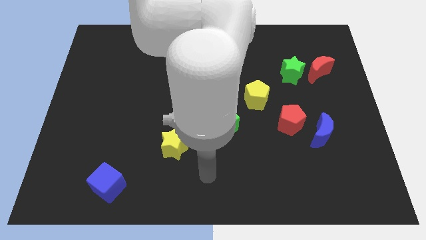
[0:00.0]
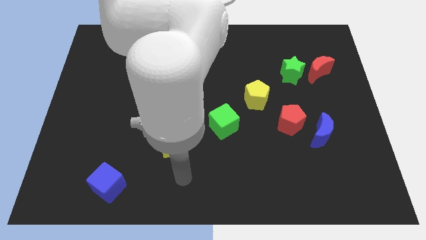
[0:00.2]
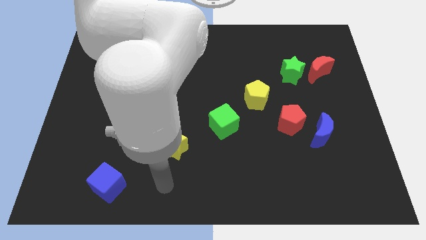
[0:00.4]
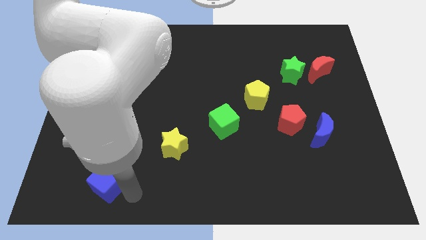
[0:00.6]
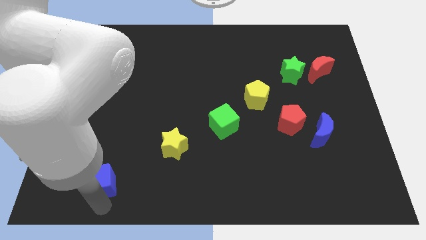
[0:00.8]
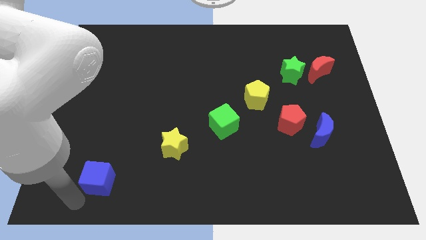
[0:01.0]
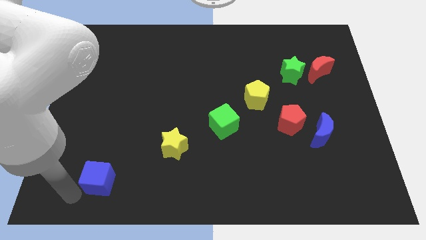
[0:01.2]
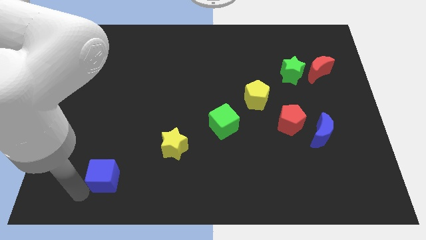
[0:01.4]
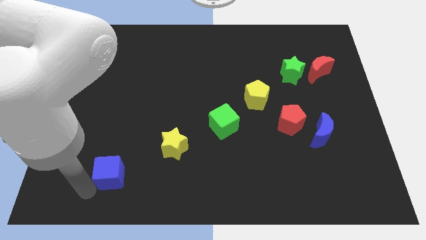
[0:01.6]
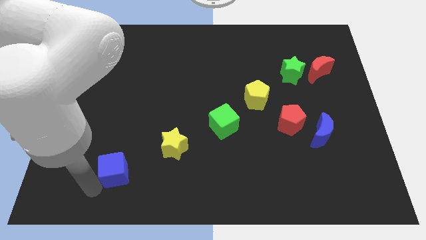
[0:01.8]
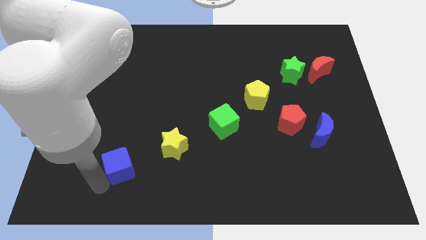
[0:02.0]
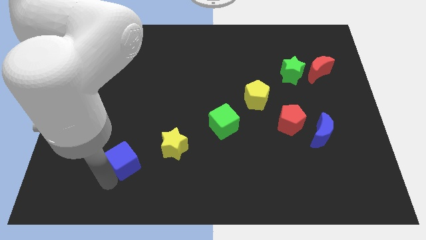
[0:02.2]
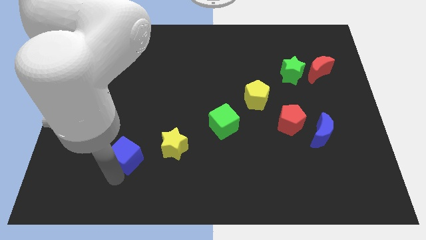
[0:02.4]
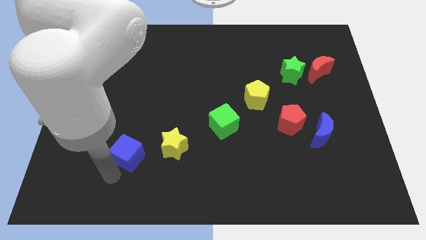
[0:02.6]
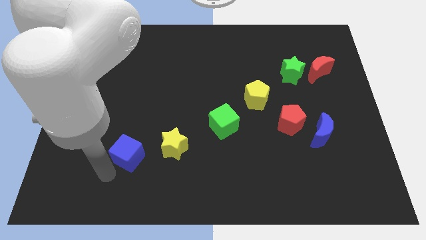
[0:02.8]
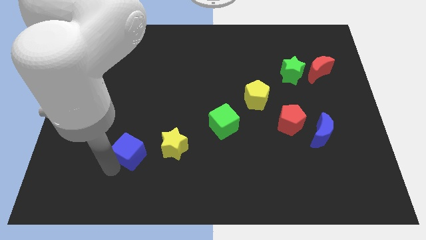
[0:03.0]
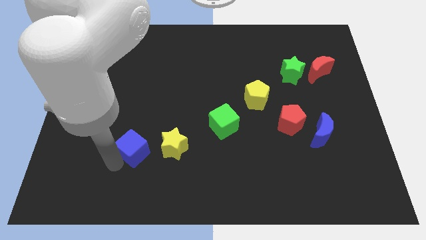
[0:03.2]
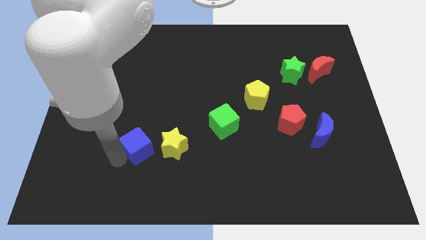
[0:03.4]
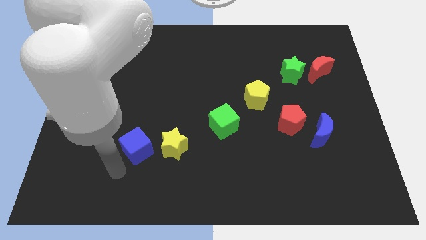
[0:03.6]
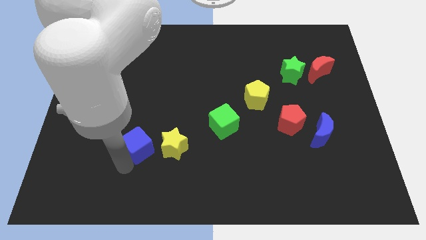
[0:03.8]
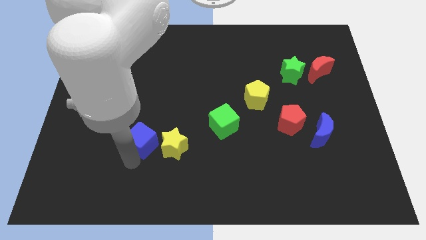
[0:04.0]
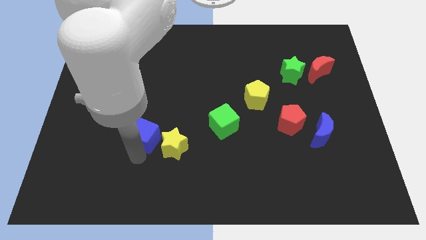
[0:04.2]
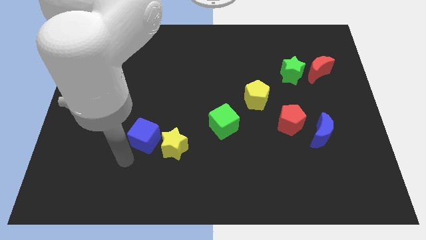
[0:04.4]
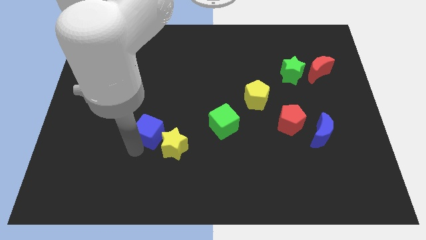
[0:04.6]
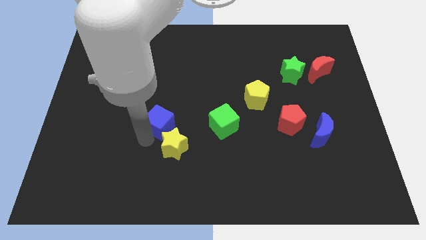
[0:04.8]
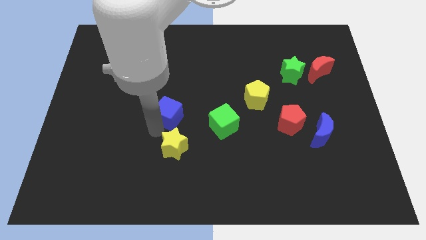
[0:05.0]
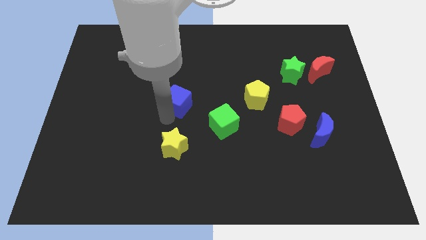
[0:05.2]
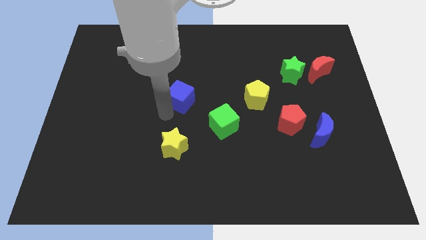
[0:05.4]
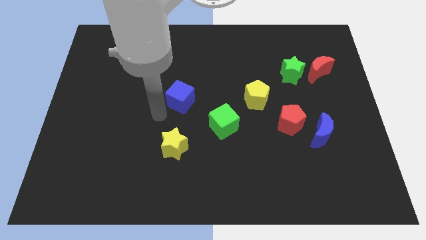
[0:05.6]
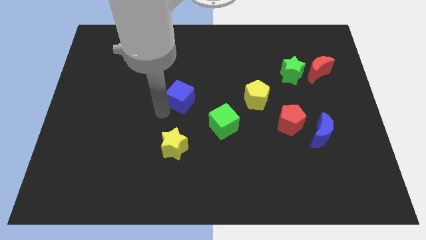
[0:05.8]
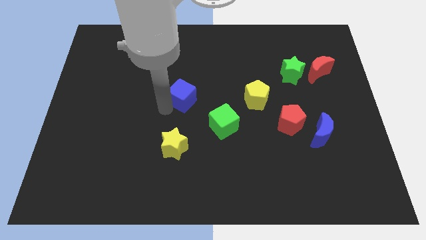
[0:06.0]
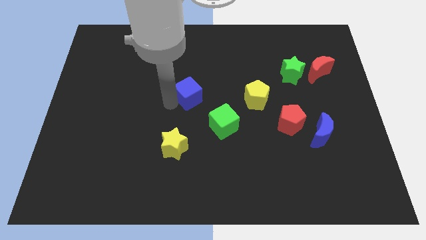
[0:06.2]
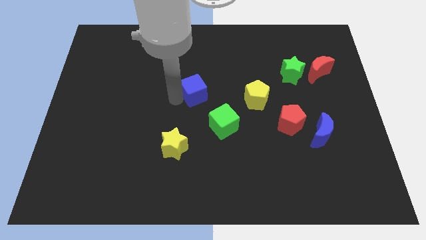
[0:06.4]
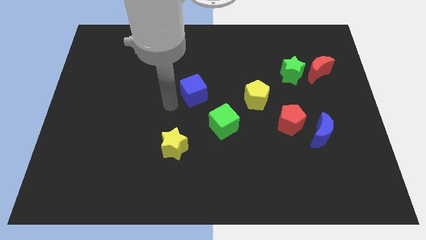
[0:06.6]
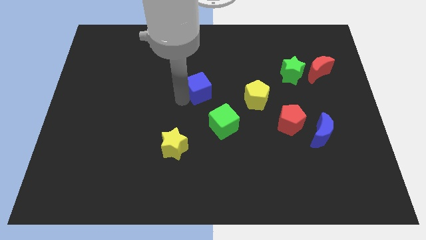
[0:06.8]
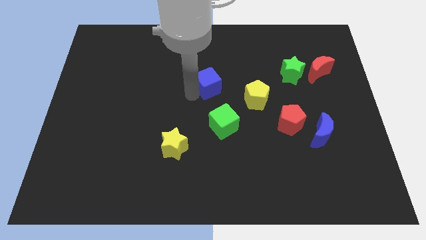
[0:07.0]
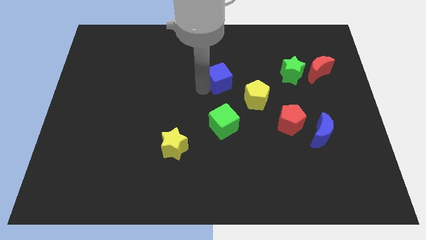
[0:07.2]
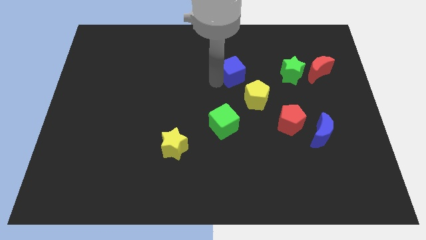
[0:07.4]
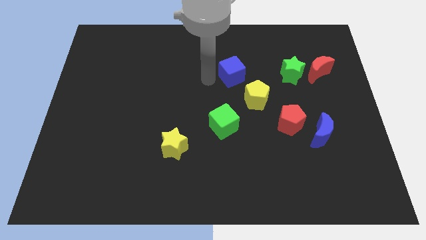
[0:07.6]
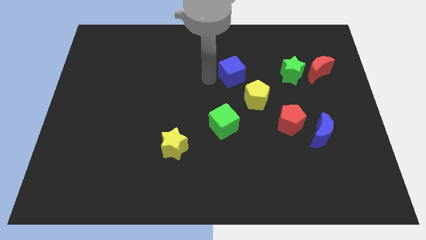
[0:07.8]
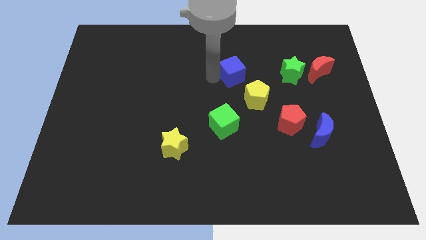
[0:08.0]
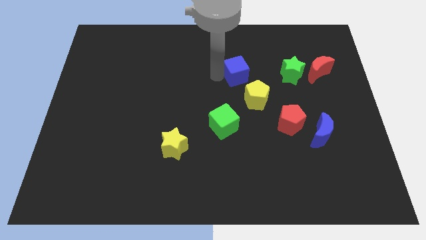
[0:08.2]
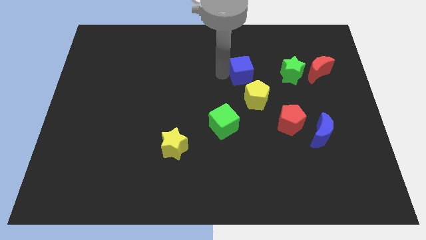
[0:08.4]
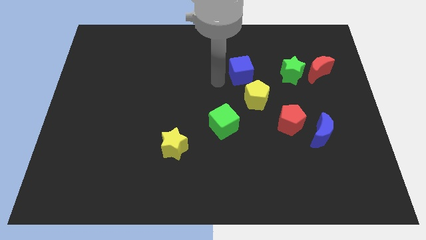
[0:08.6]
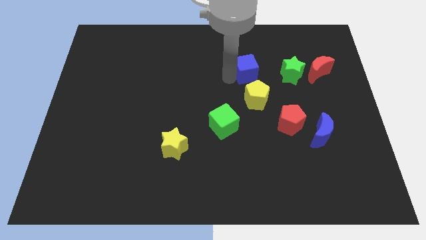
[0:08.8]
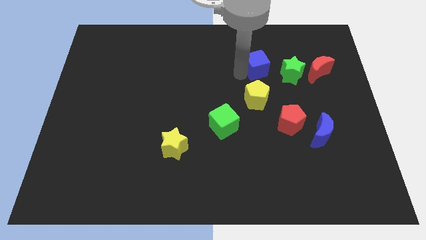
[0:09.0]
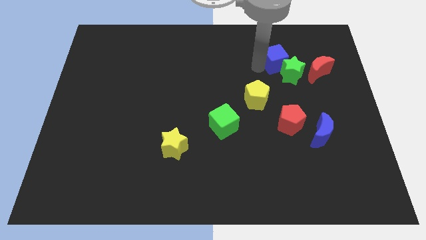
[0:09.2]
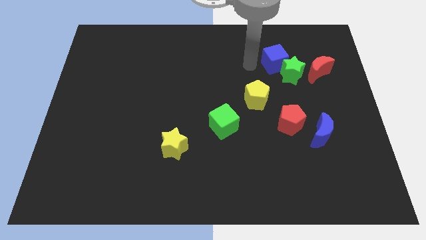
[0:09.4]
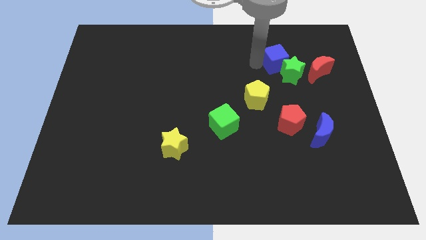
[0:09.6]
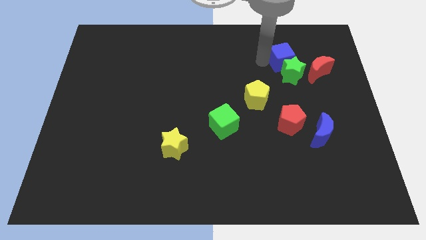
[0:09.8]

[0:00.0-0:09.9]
slide the blue cube diagonally up and to the right of the green star

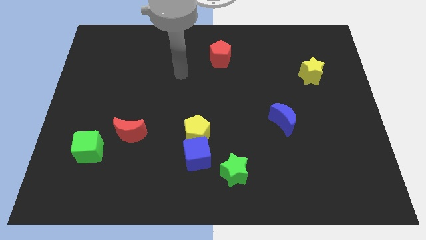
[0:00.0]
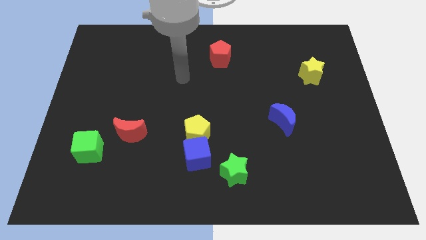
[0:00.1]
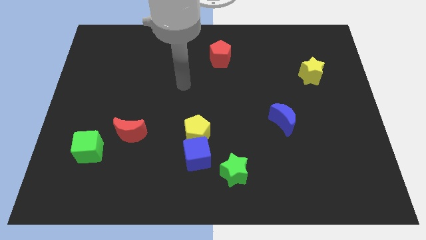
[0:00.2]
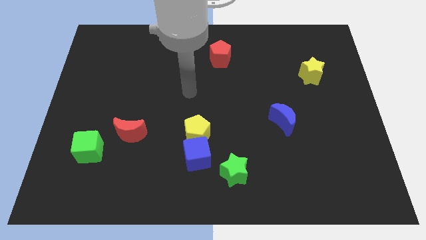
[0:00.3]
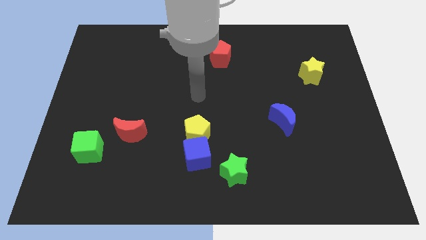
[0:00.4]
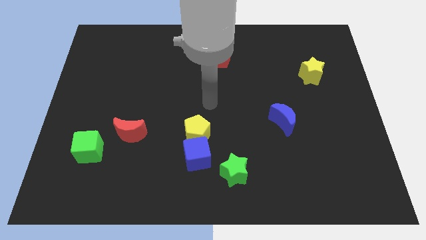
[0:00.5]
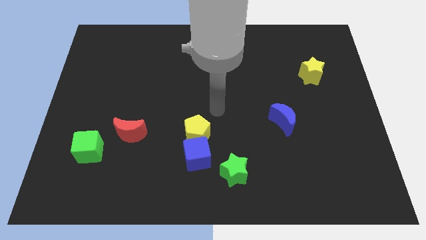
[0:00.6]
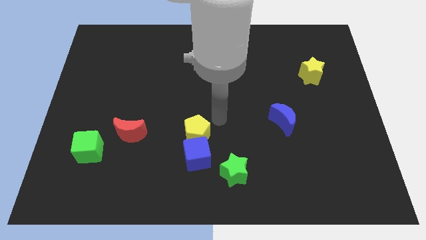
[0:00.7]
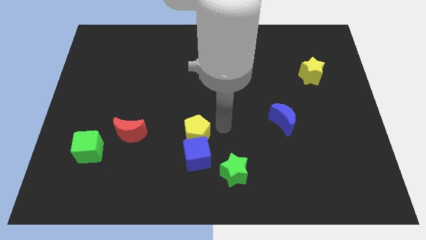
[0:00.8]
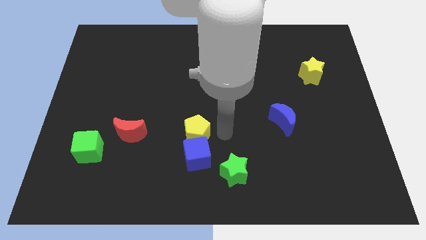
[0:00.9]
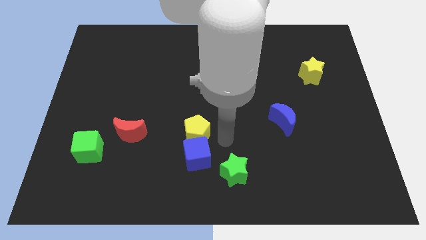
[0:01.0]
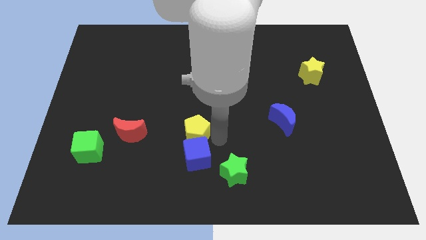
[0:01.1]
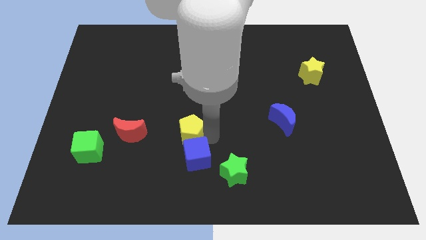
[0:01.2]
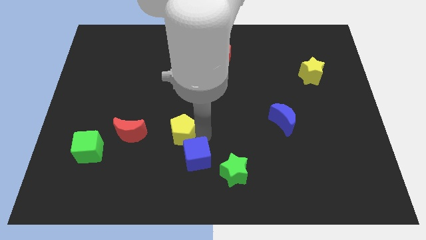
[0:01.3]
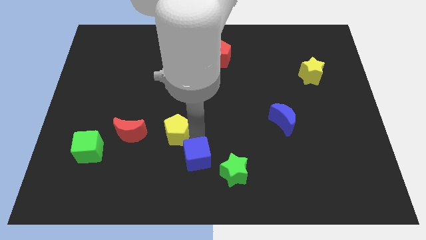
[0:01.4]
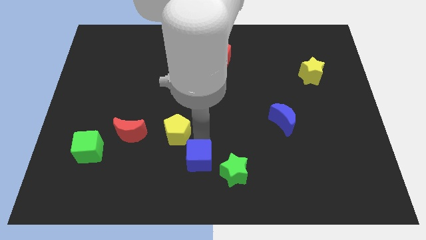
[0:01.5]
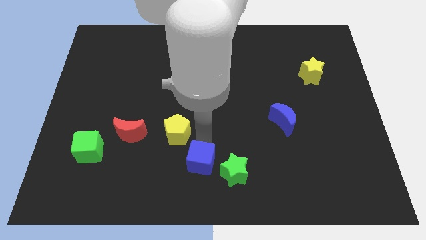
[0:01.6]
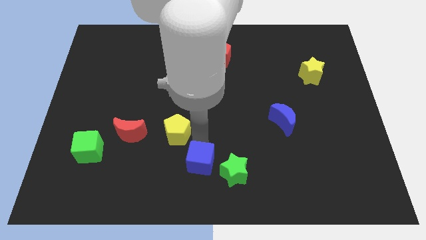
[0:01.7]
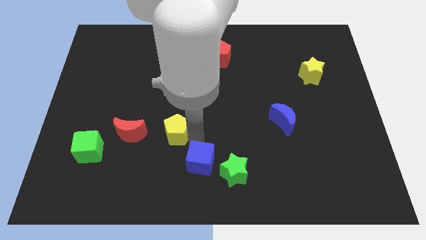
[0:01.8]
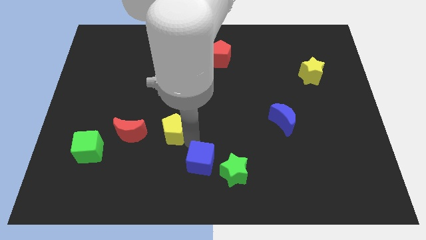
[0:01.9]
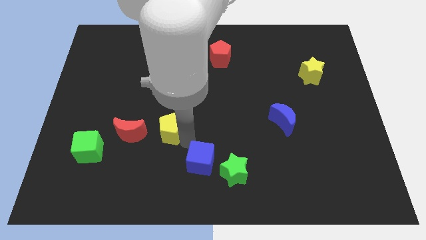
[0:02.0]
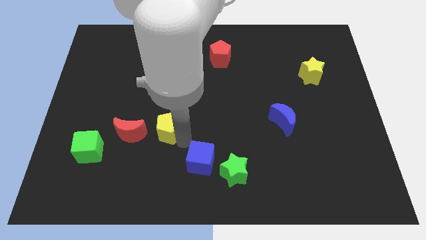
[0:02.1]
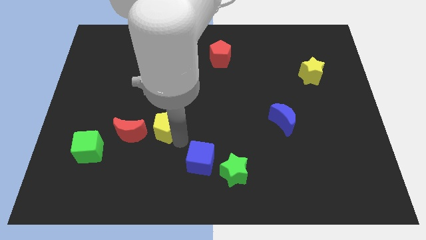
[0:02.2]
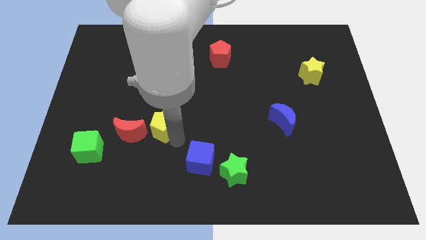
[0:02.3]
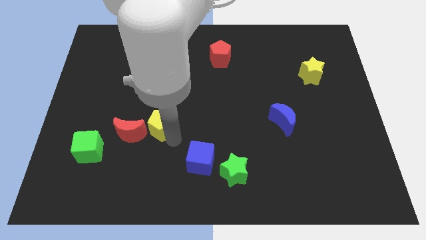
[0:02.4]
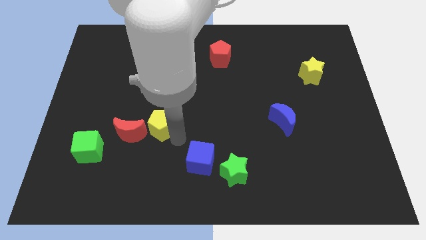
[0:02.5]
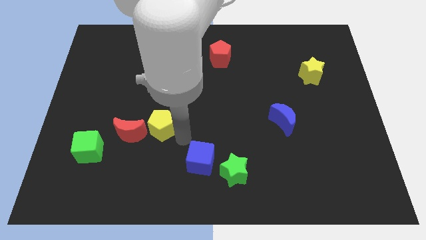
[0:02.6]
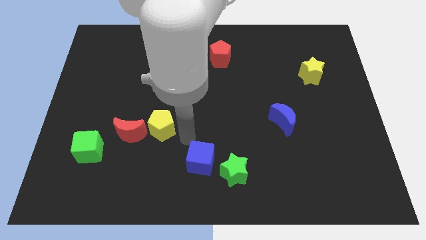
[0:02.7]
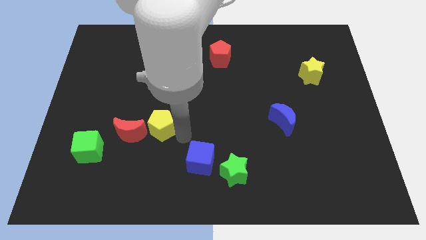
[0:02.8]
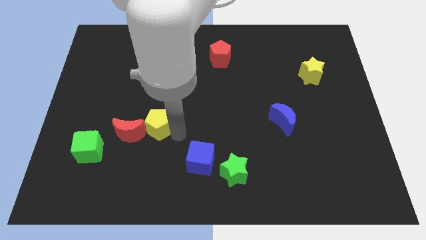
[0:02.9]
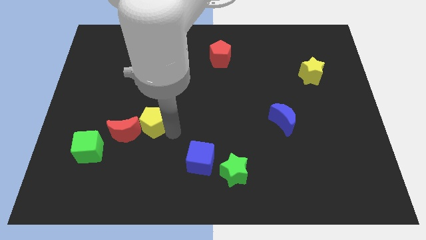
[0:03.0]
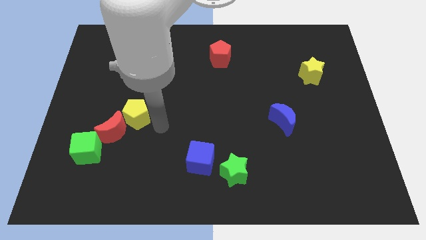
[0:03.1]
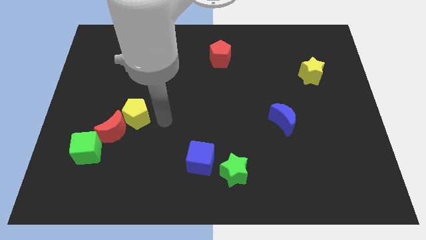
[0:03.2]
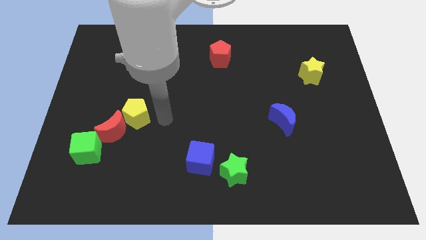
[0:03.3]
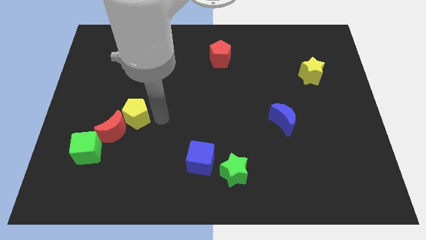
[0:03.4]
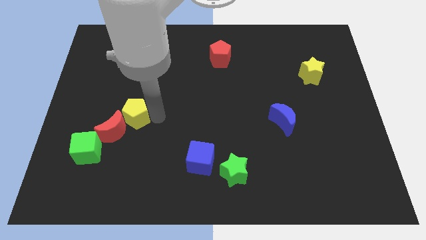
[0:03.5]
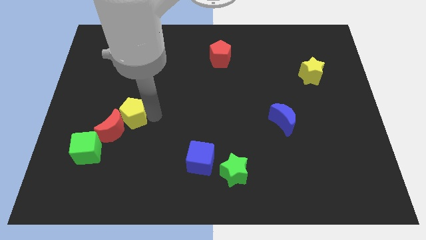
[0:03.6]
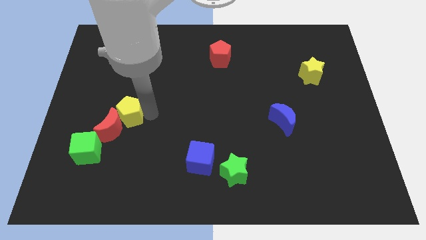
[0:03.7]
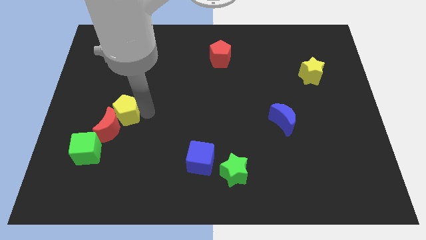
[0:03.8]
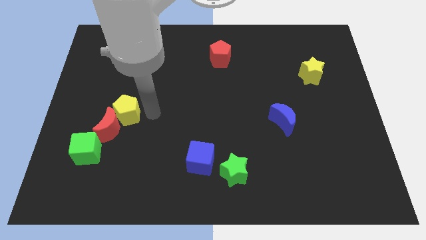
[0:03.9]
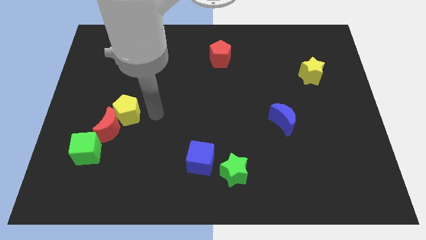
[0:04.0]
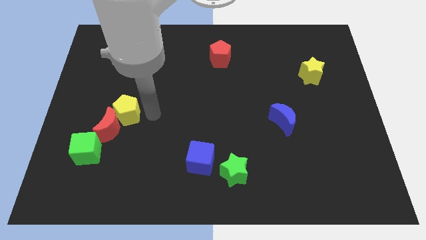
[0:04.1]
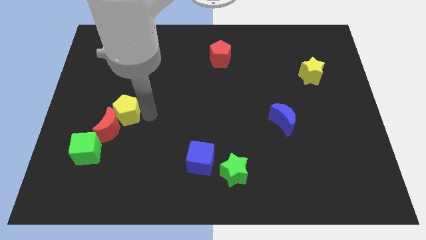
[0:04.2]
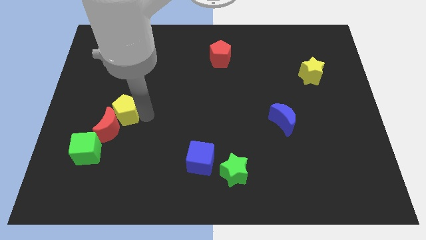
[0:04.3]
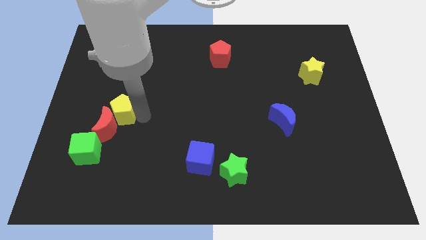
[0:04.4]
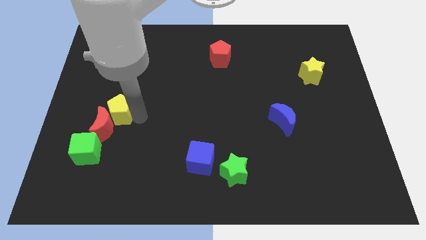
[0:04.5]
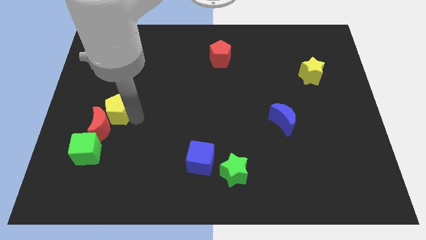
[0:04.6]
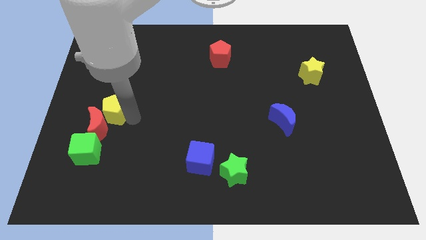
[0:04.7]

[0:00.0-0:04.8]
move the yellow pentagon to the top side of the green cube
